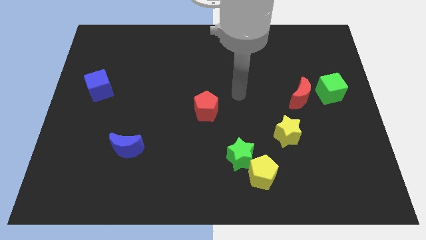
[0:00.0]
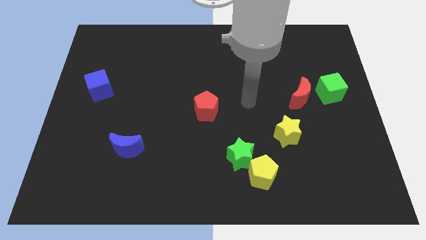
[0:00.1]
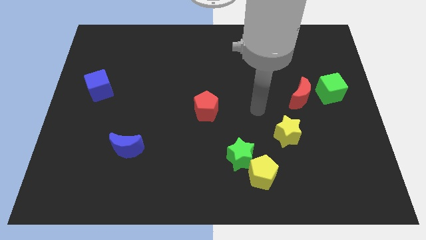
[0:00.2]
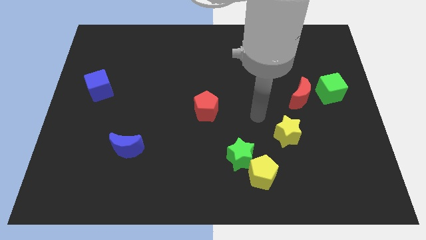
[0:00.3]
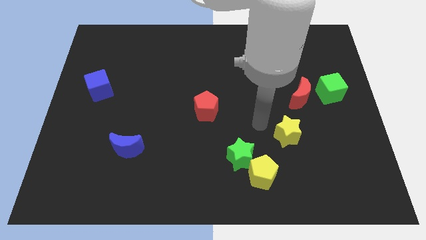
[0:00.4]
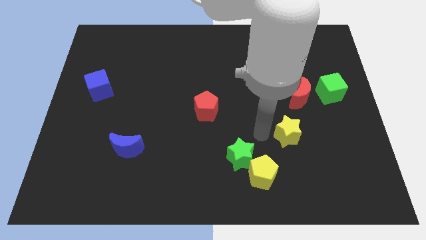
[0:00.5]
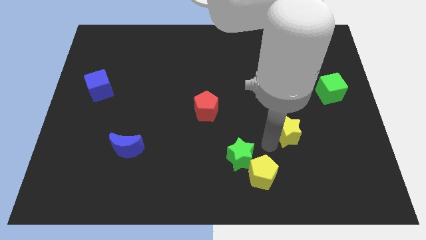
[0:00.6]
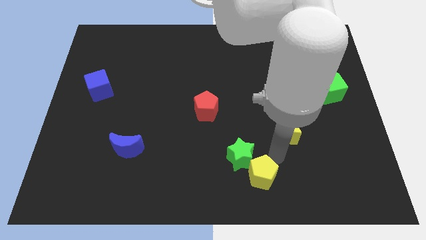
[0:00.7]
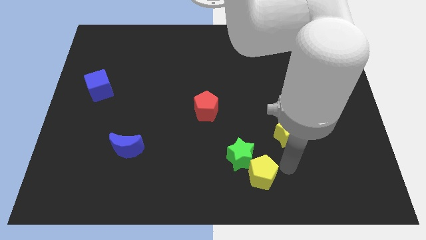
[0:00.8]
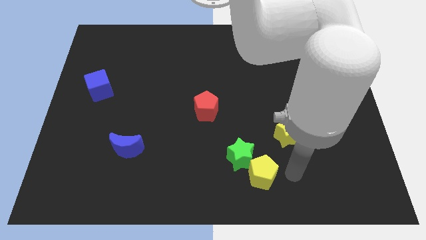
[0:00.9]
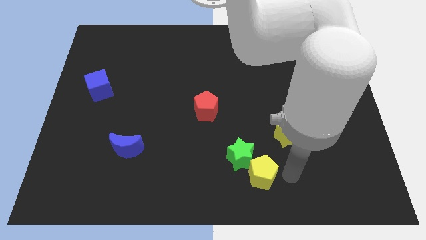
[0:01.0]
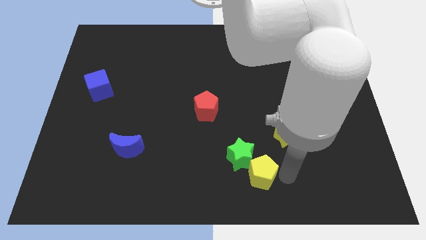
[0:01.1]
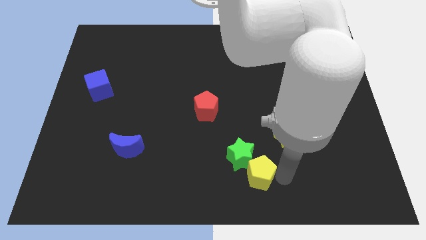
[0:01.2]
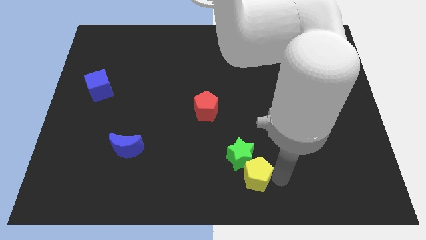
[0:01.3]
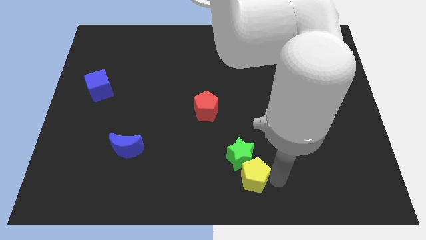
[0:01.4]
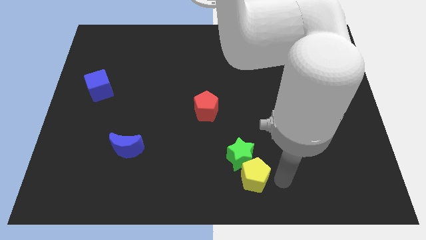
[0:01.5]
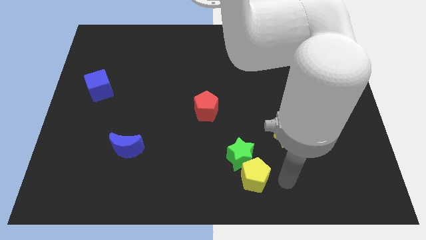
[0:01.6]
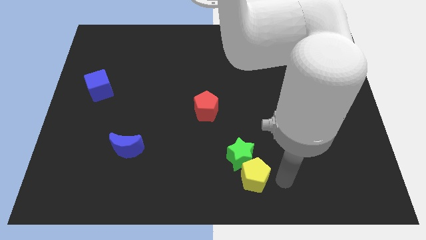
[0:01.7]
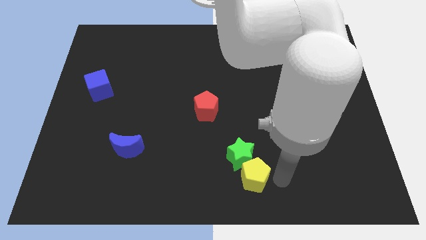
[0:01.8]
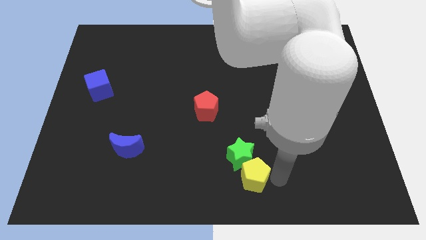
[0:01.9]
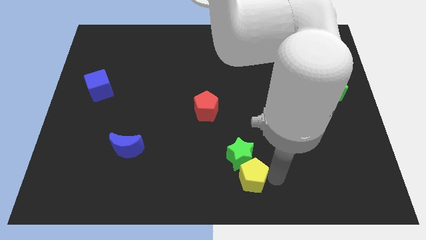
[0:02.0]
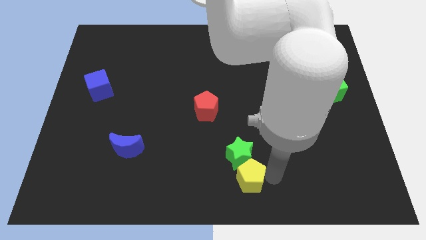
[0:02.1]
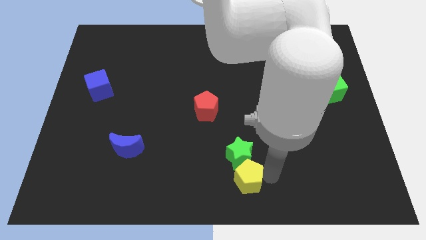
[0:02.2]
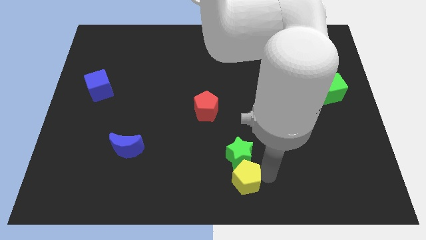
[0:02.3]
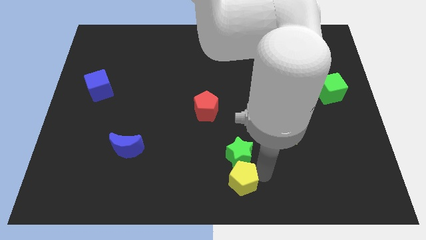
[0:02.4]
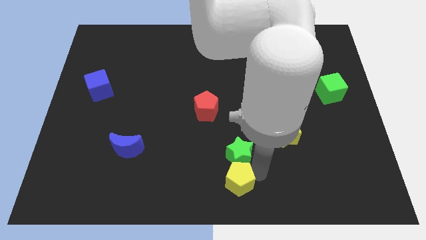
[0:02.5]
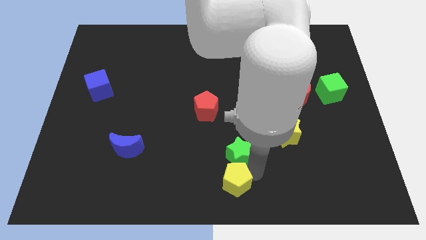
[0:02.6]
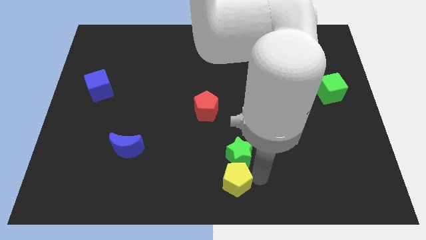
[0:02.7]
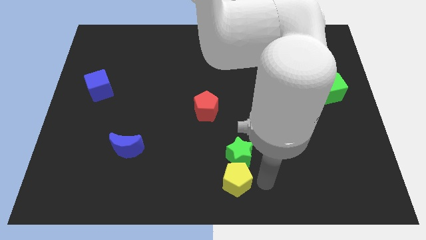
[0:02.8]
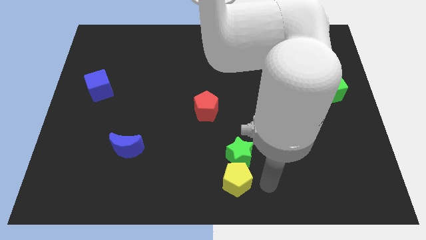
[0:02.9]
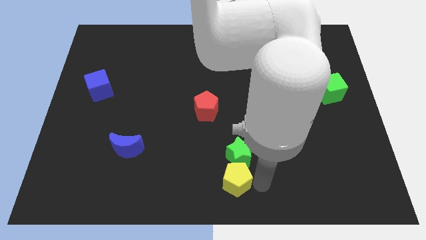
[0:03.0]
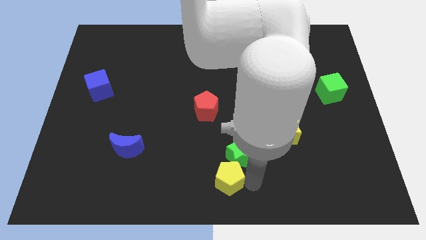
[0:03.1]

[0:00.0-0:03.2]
push the yellow pentagon a little to the left

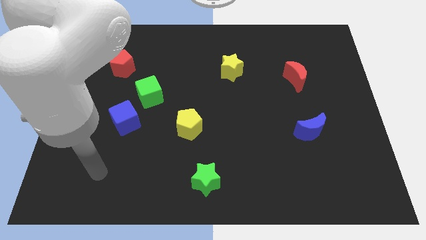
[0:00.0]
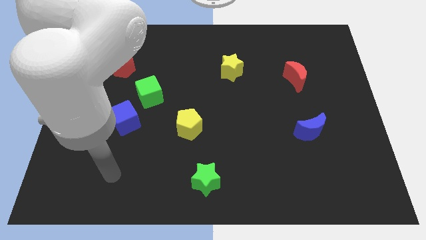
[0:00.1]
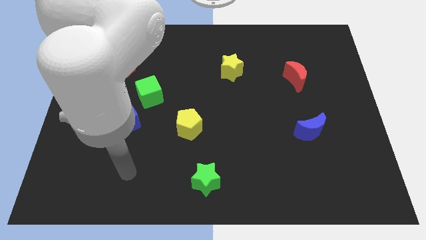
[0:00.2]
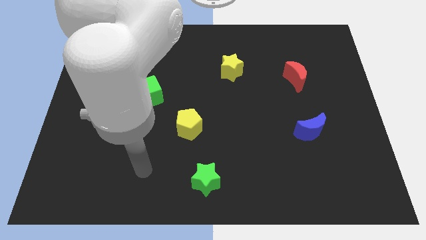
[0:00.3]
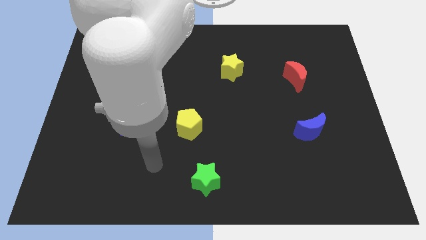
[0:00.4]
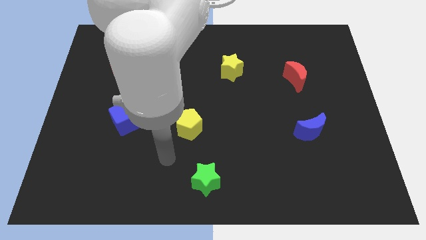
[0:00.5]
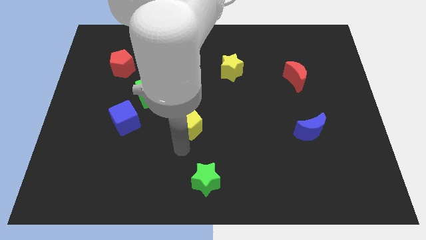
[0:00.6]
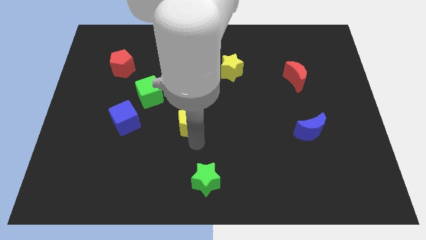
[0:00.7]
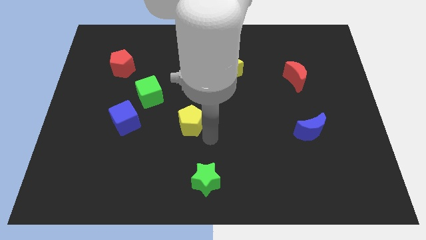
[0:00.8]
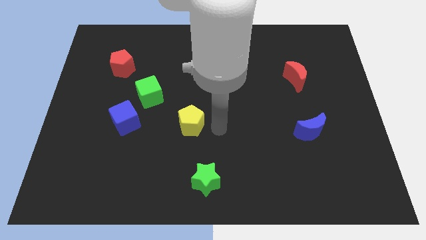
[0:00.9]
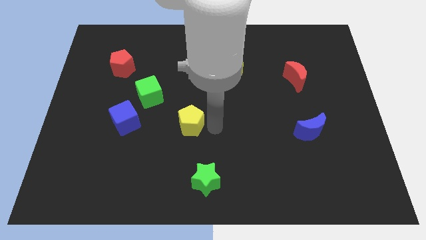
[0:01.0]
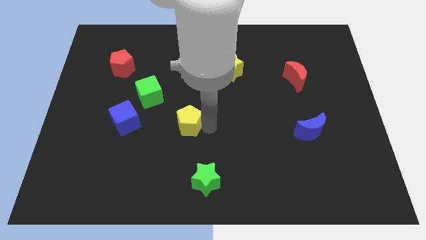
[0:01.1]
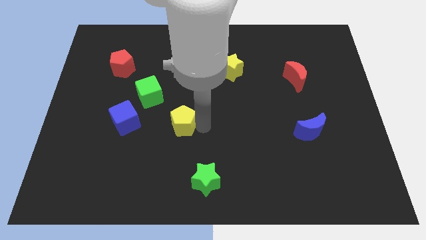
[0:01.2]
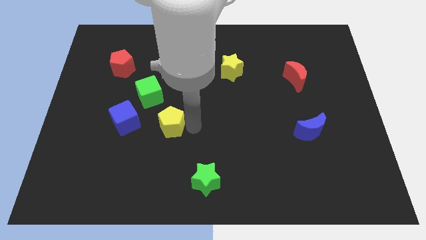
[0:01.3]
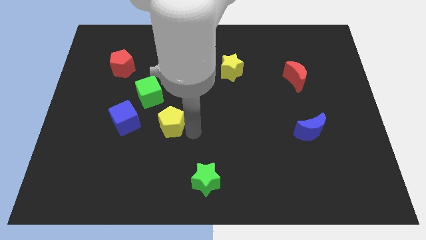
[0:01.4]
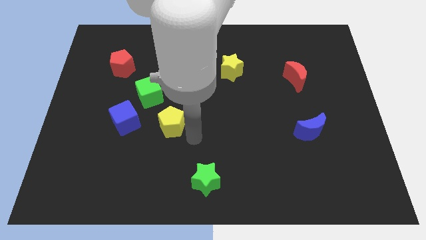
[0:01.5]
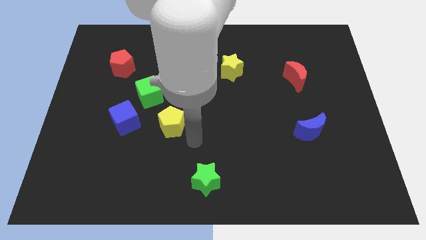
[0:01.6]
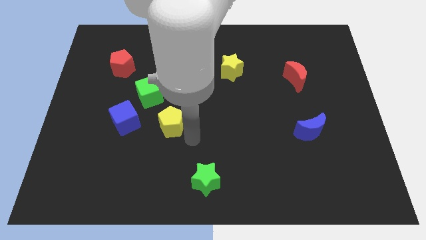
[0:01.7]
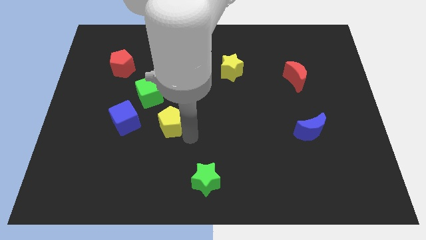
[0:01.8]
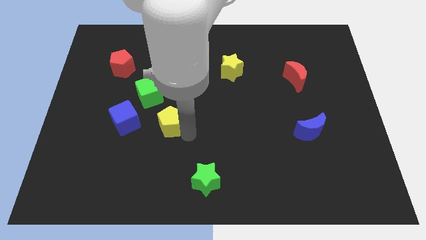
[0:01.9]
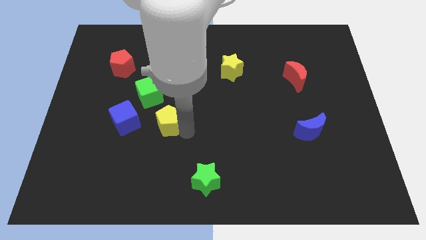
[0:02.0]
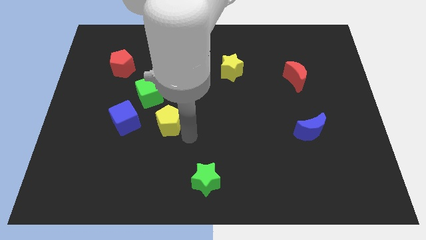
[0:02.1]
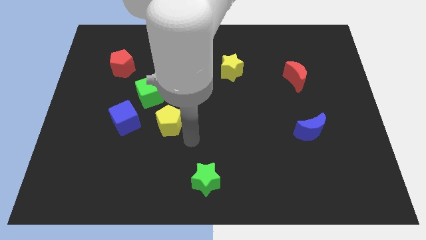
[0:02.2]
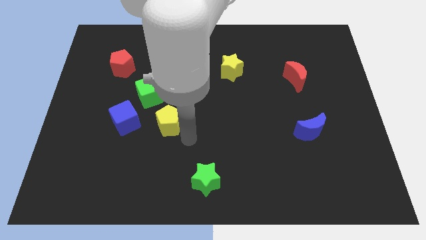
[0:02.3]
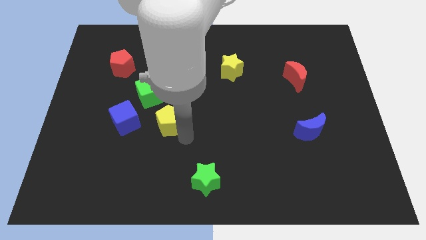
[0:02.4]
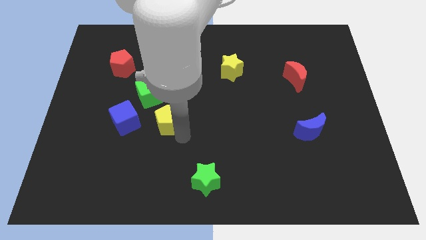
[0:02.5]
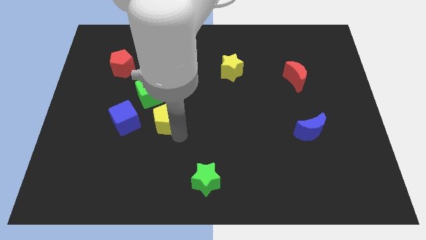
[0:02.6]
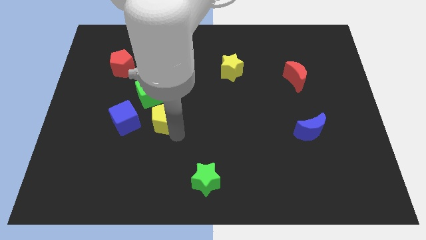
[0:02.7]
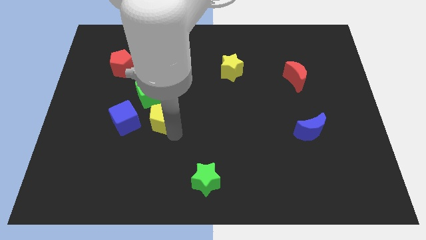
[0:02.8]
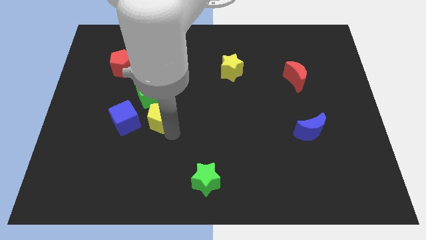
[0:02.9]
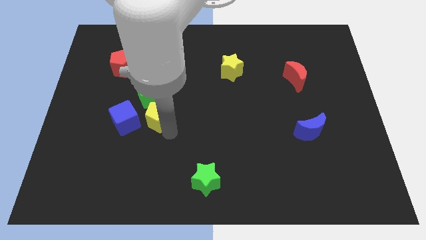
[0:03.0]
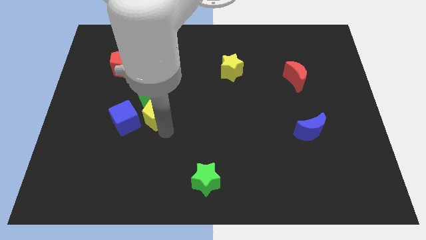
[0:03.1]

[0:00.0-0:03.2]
slightly move the yellow pentagon upwards and then to the left

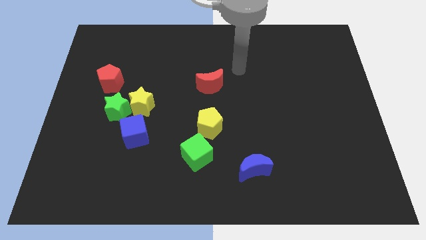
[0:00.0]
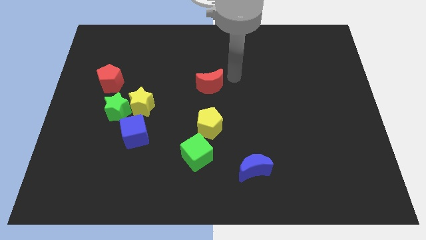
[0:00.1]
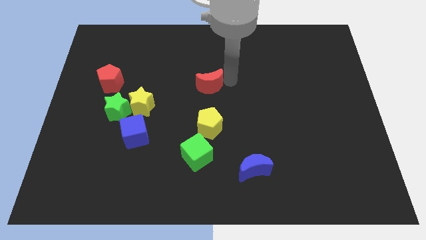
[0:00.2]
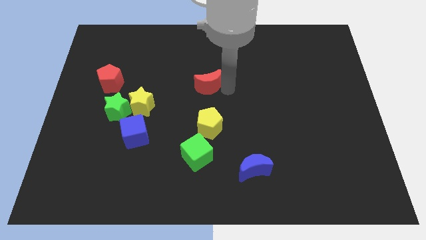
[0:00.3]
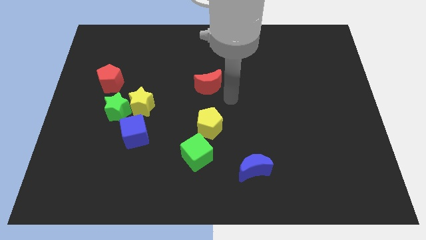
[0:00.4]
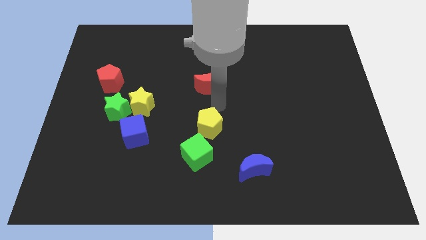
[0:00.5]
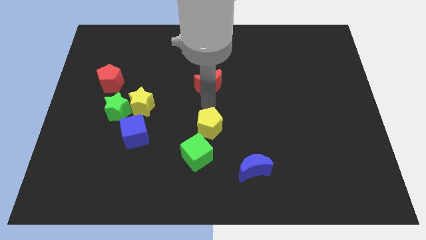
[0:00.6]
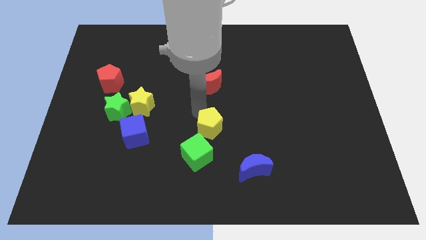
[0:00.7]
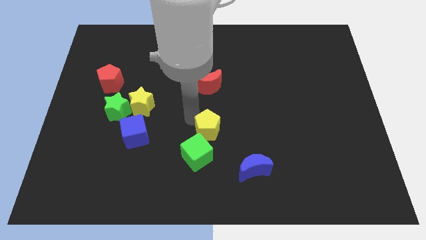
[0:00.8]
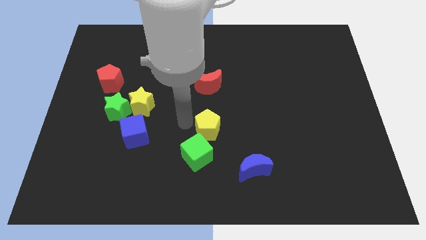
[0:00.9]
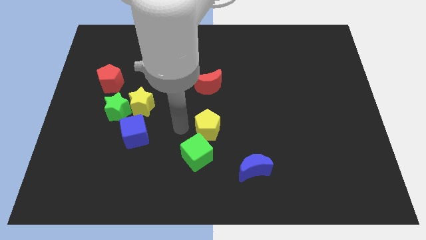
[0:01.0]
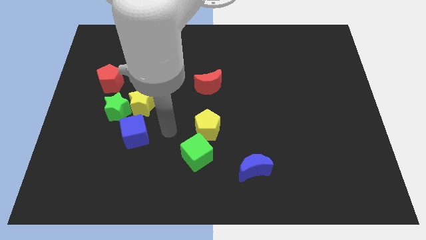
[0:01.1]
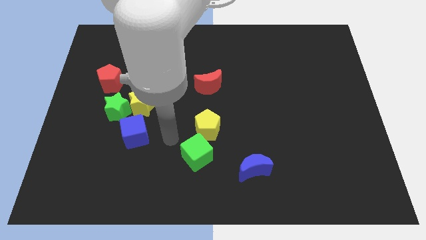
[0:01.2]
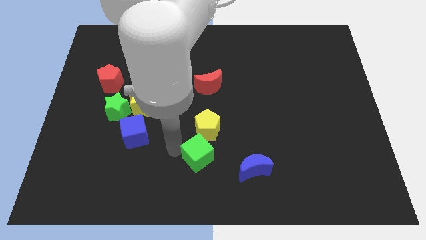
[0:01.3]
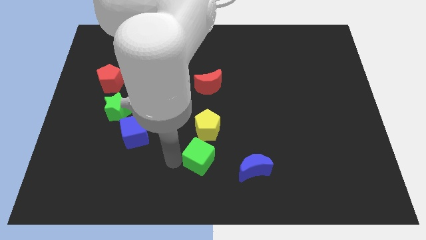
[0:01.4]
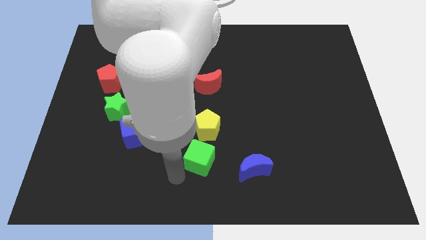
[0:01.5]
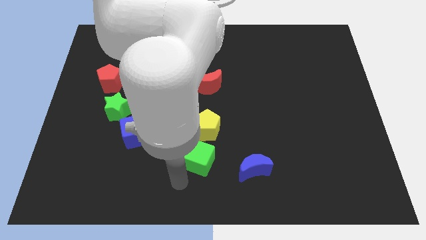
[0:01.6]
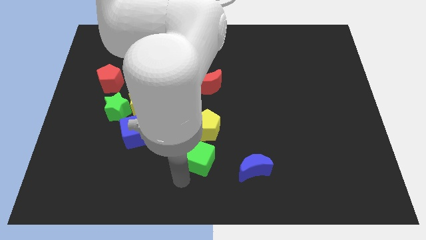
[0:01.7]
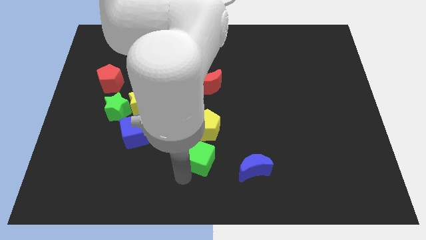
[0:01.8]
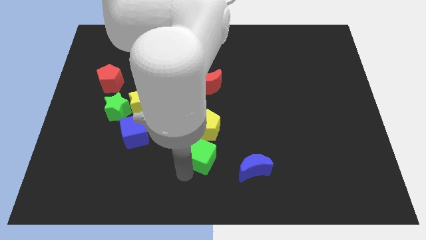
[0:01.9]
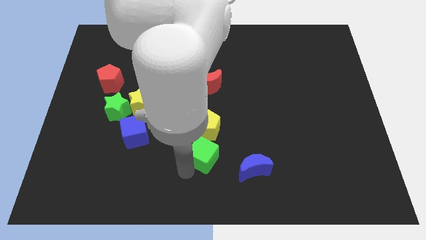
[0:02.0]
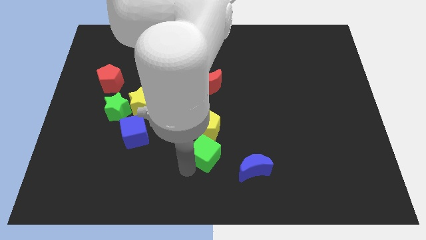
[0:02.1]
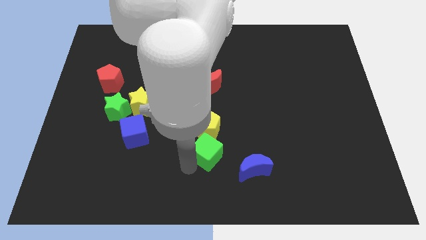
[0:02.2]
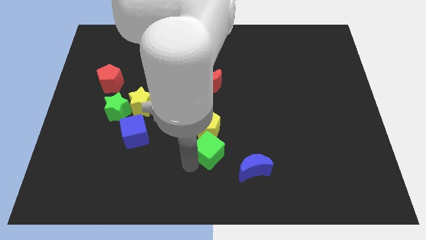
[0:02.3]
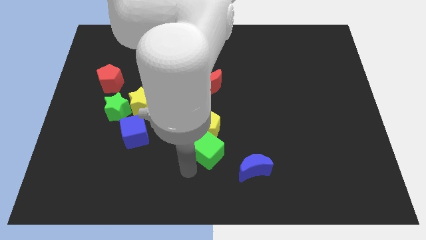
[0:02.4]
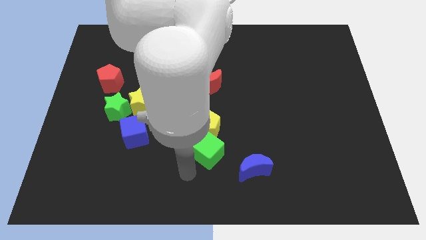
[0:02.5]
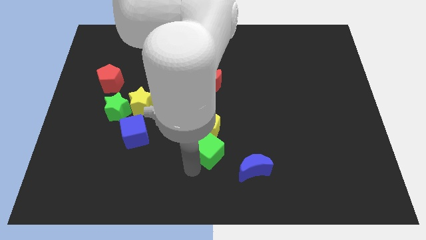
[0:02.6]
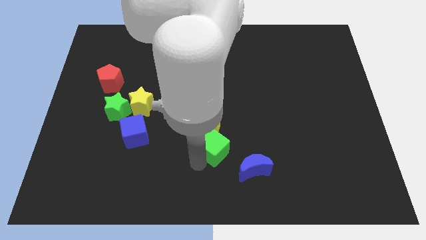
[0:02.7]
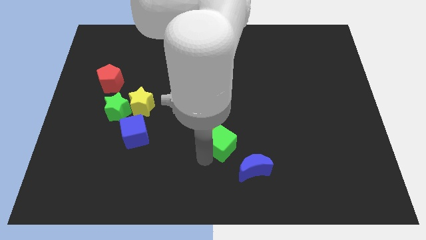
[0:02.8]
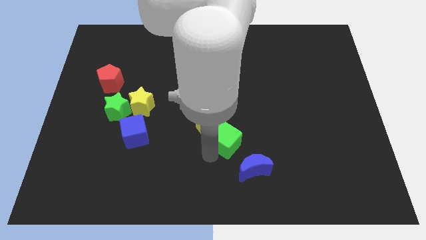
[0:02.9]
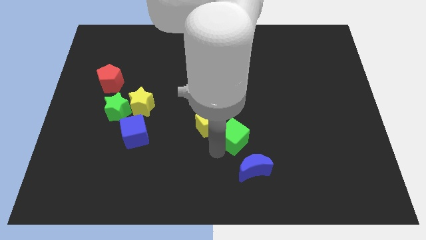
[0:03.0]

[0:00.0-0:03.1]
slide the green cube diagonally upwards and right a bit
